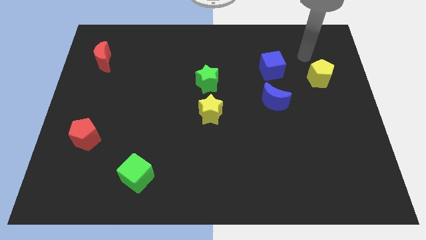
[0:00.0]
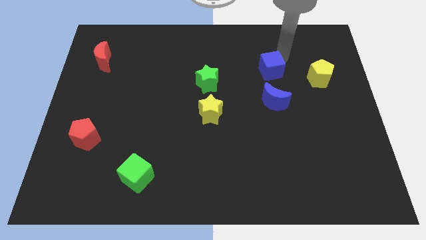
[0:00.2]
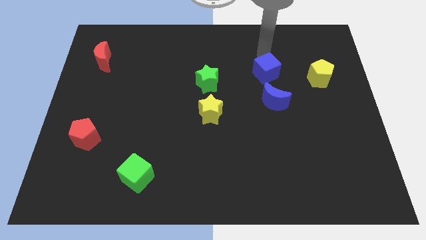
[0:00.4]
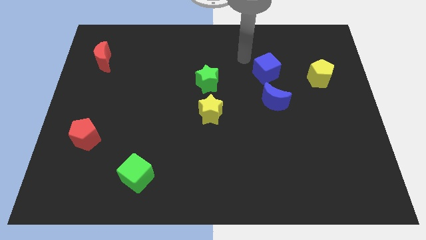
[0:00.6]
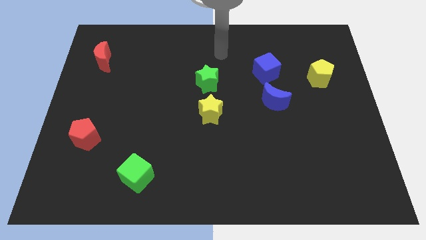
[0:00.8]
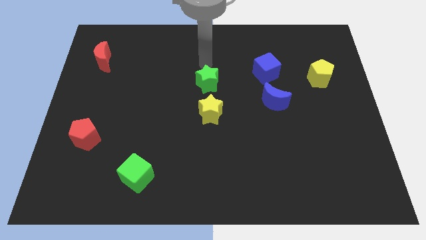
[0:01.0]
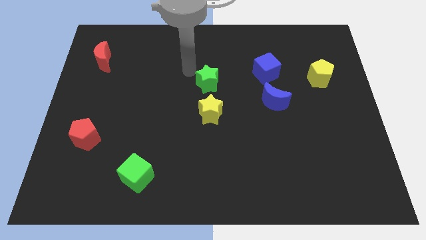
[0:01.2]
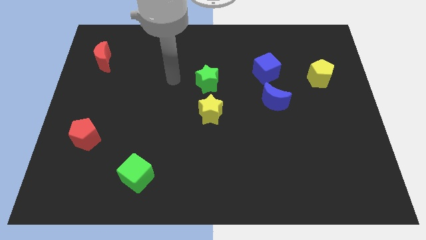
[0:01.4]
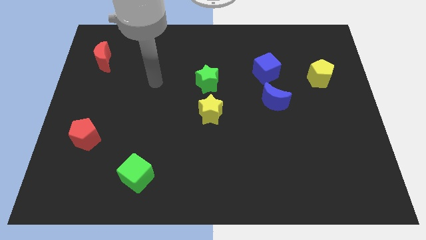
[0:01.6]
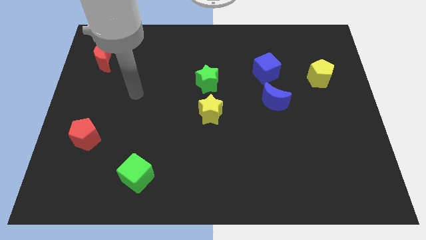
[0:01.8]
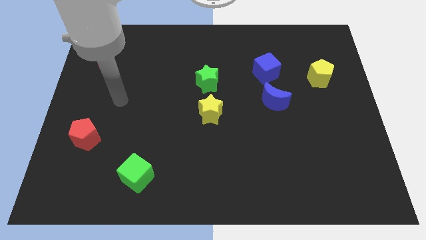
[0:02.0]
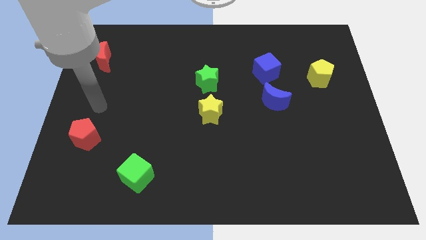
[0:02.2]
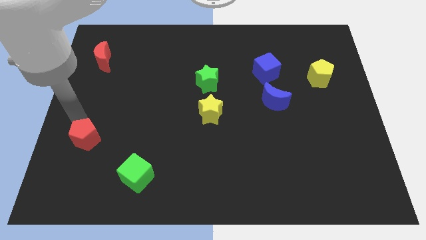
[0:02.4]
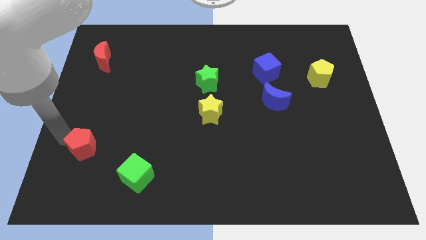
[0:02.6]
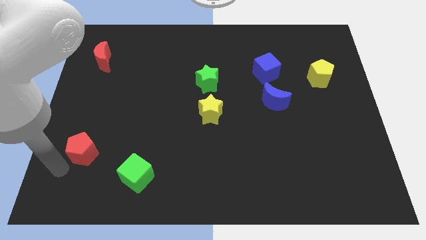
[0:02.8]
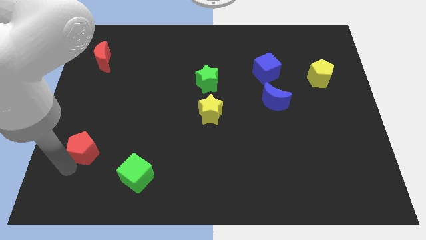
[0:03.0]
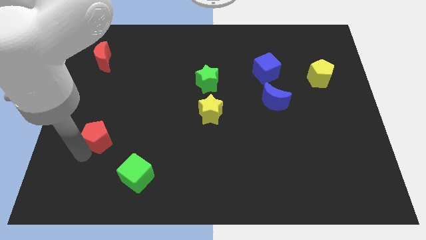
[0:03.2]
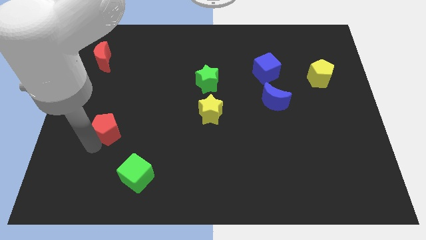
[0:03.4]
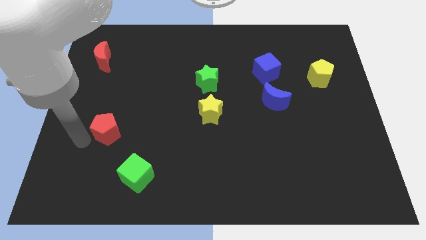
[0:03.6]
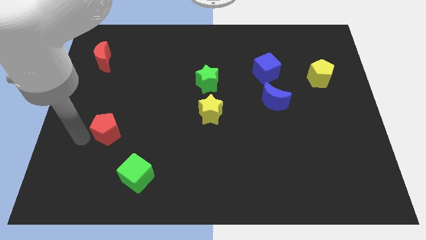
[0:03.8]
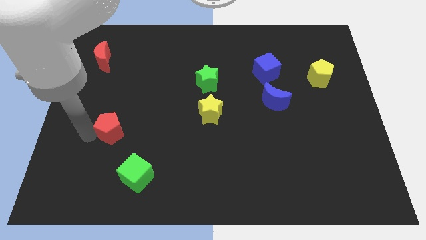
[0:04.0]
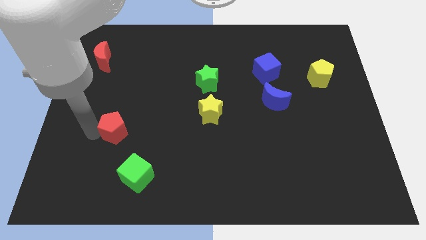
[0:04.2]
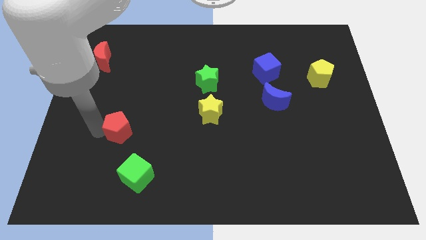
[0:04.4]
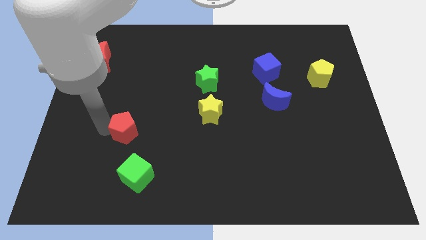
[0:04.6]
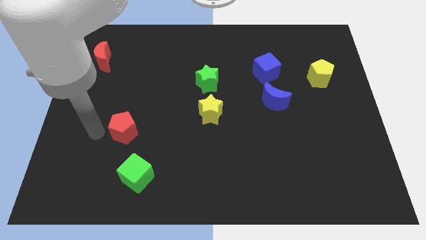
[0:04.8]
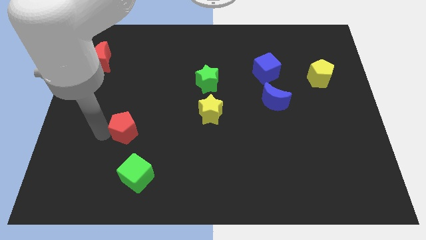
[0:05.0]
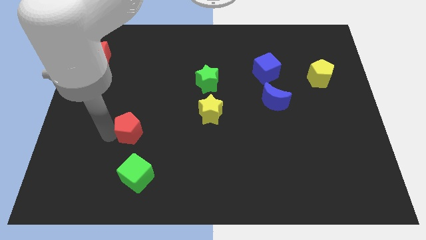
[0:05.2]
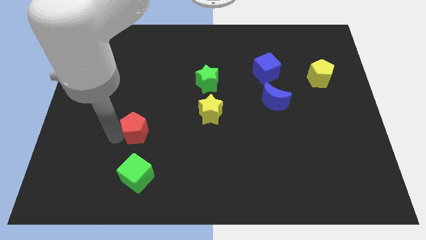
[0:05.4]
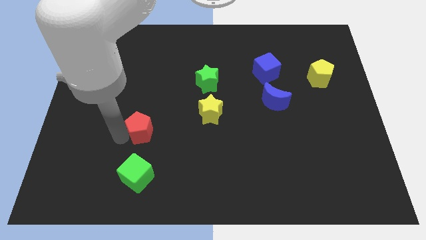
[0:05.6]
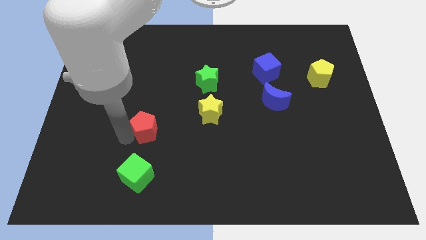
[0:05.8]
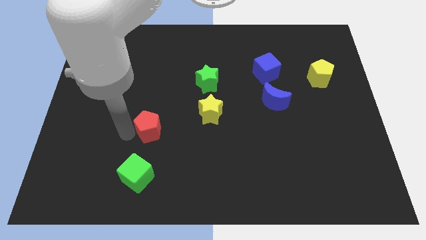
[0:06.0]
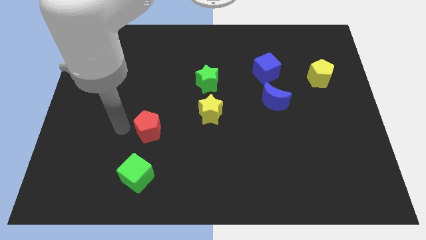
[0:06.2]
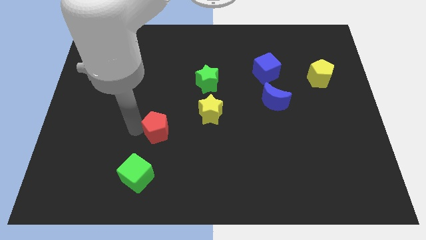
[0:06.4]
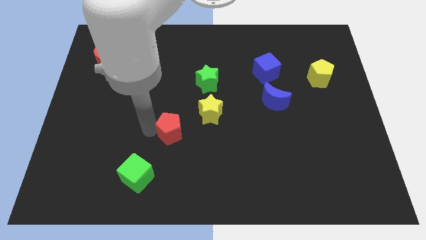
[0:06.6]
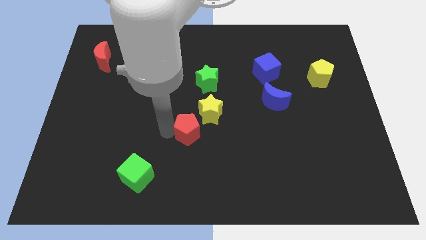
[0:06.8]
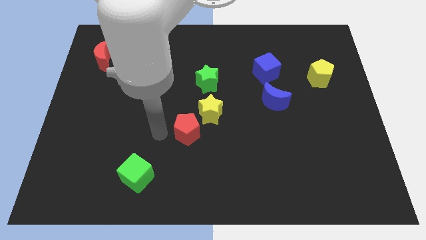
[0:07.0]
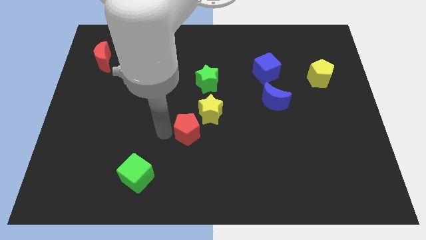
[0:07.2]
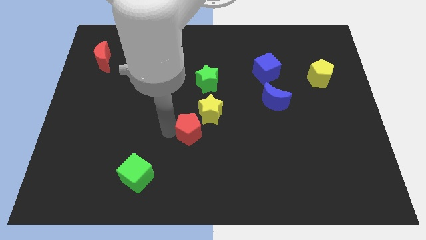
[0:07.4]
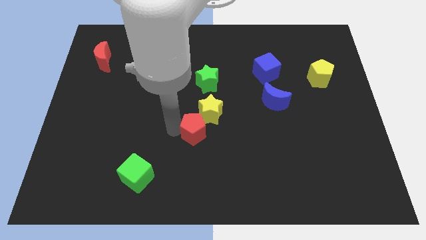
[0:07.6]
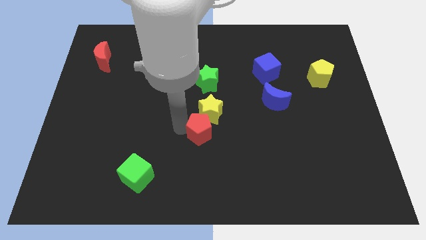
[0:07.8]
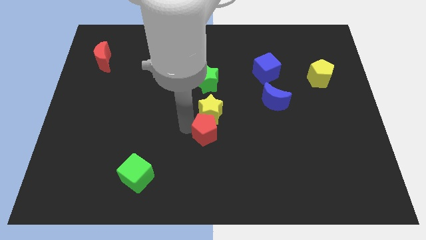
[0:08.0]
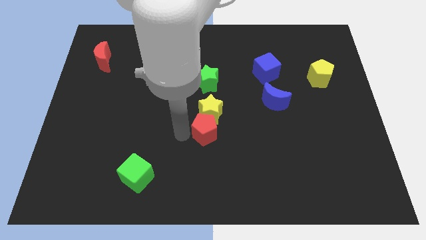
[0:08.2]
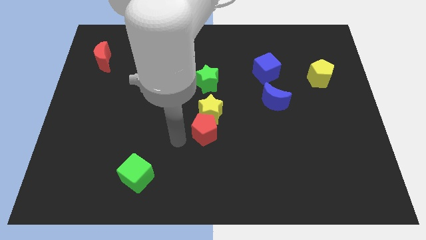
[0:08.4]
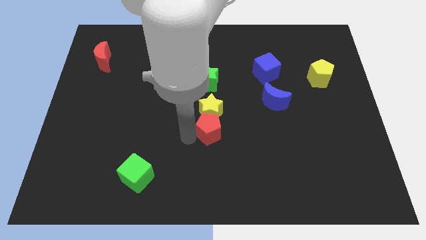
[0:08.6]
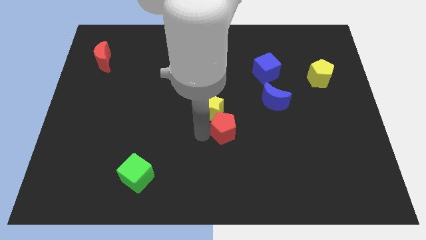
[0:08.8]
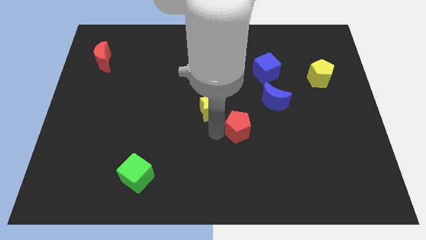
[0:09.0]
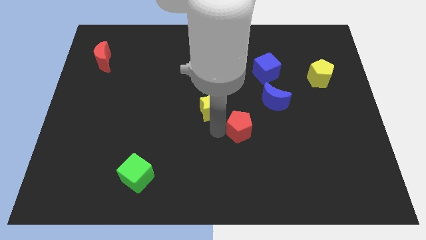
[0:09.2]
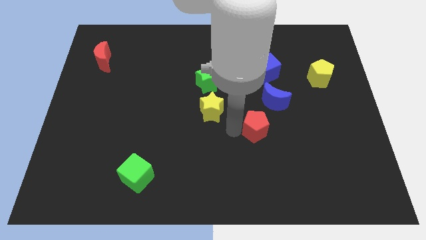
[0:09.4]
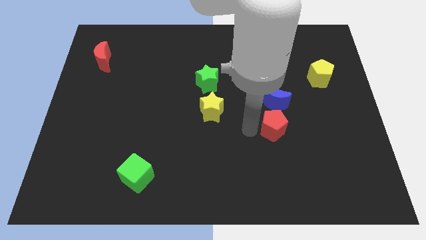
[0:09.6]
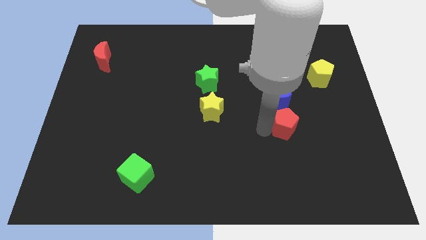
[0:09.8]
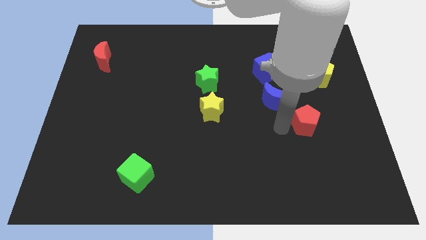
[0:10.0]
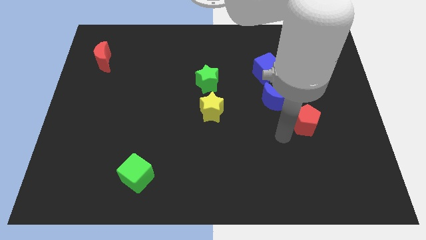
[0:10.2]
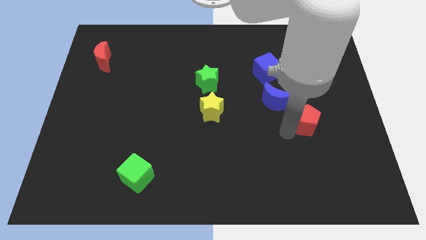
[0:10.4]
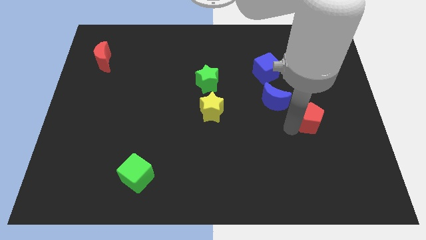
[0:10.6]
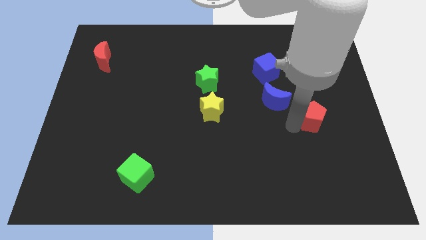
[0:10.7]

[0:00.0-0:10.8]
put the red pentagon below the yellow pentagon

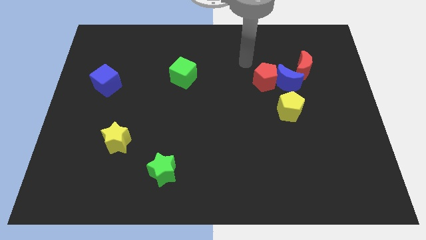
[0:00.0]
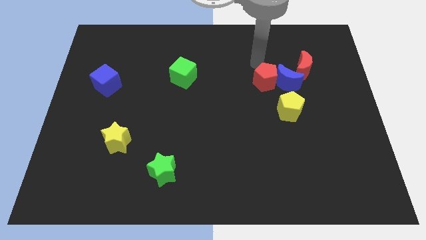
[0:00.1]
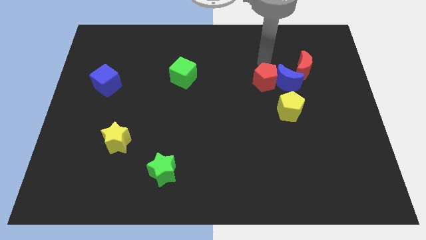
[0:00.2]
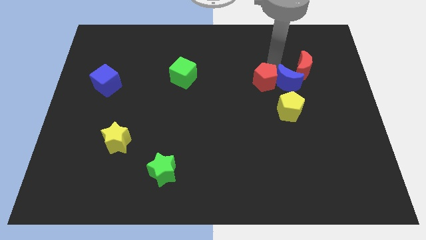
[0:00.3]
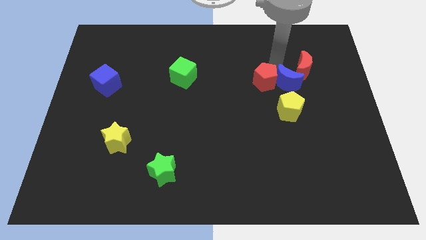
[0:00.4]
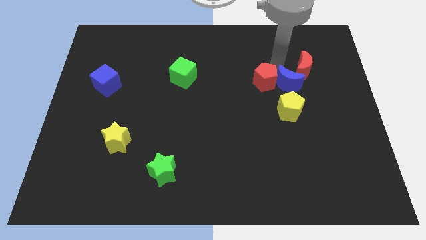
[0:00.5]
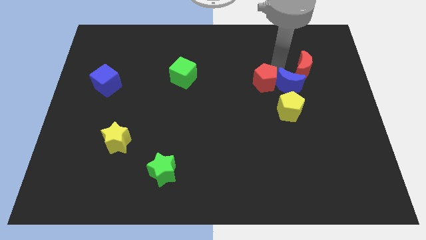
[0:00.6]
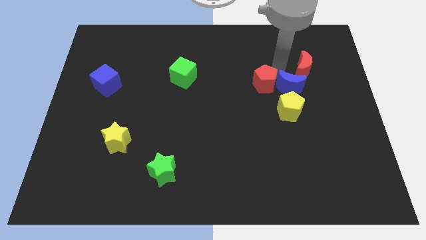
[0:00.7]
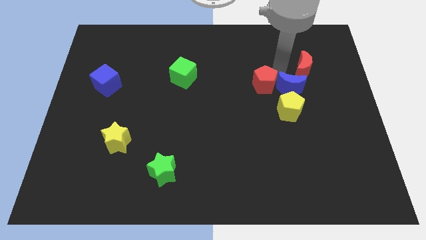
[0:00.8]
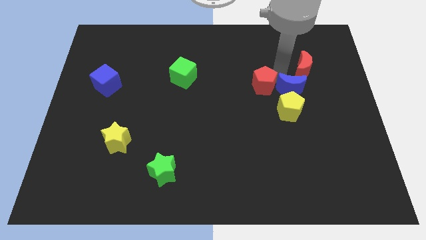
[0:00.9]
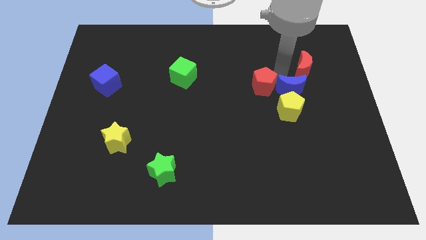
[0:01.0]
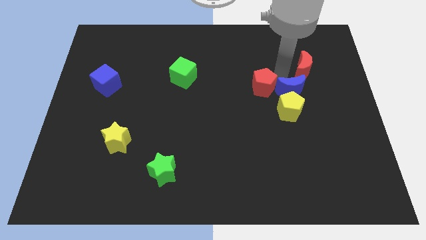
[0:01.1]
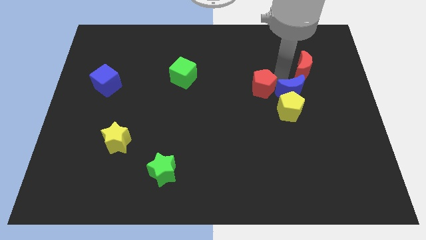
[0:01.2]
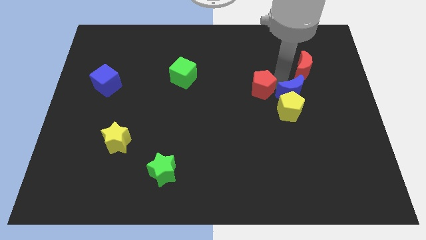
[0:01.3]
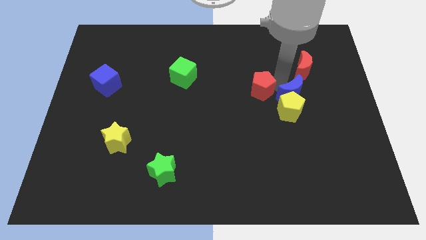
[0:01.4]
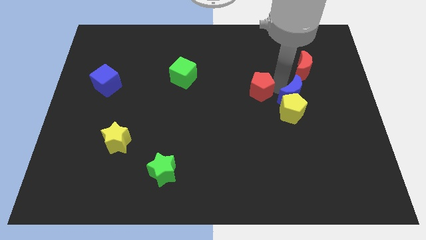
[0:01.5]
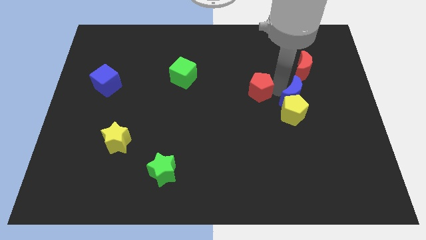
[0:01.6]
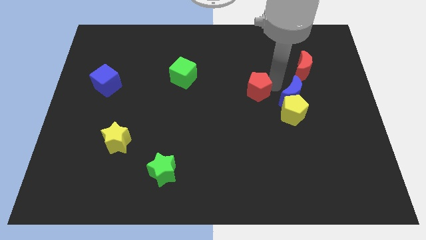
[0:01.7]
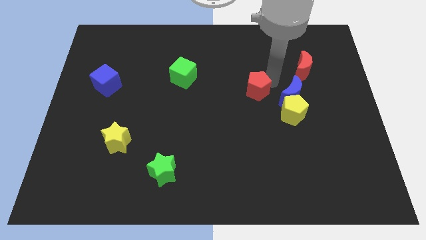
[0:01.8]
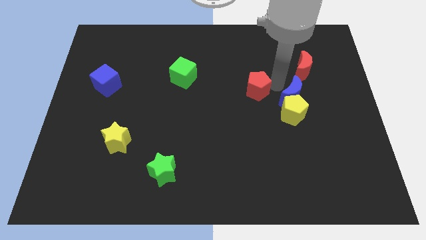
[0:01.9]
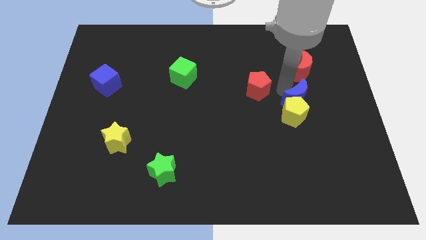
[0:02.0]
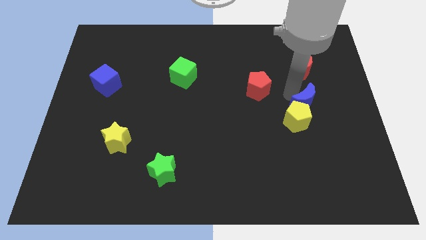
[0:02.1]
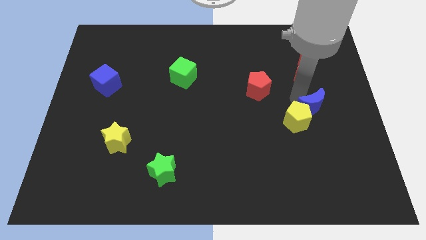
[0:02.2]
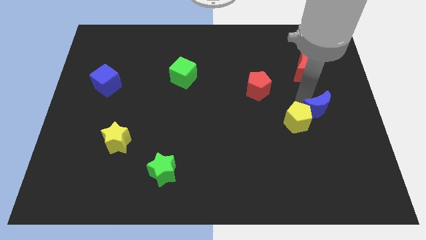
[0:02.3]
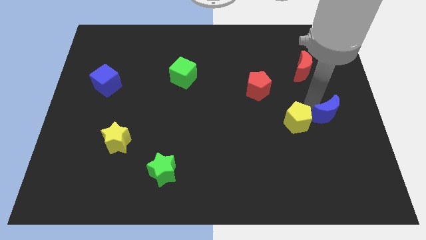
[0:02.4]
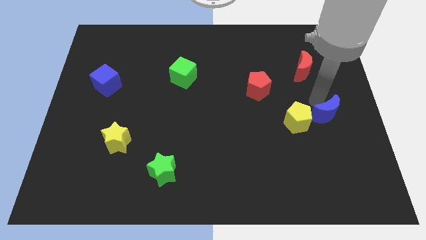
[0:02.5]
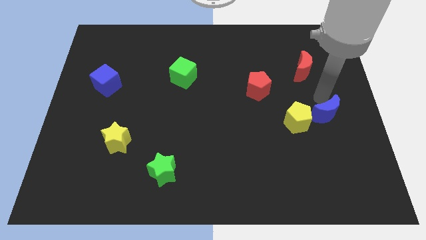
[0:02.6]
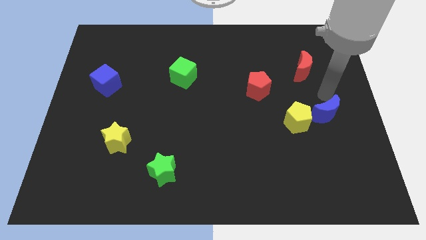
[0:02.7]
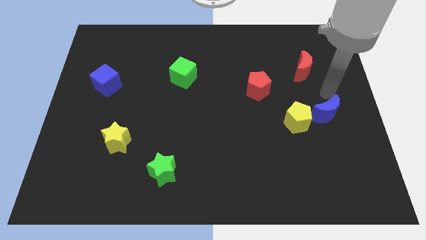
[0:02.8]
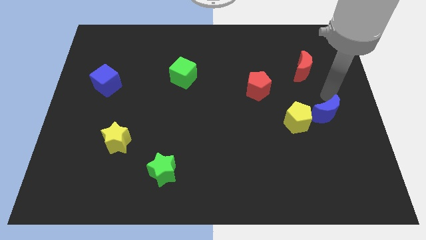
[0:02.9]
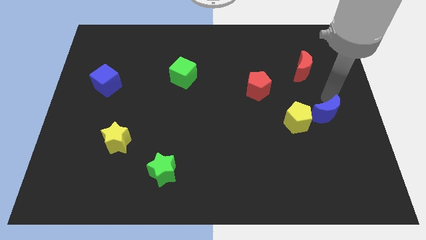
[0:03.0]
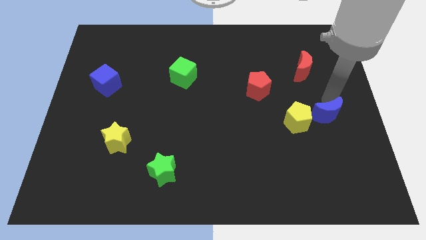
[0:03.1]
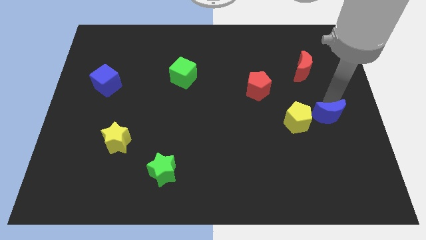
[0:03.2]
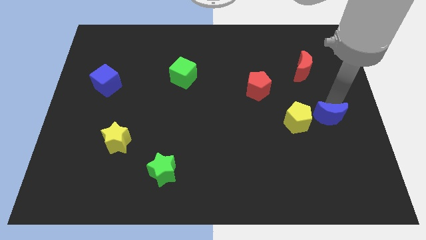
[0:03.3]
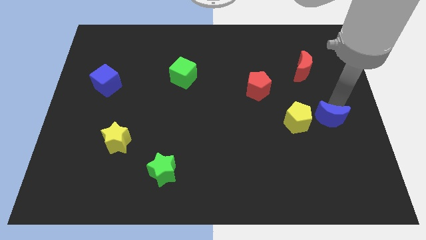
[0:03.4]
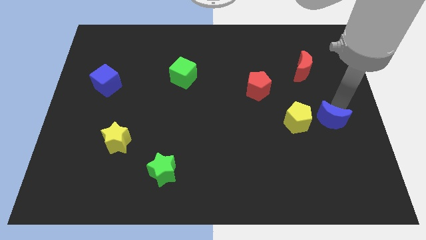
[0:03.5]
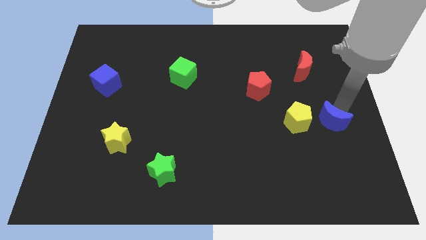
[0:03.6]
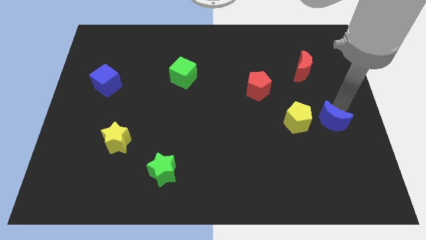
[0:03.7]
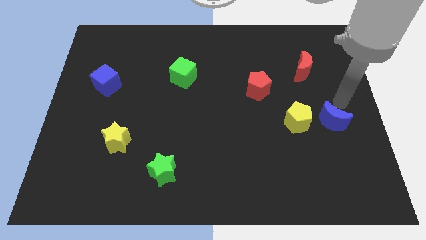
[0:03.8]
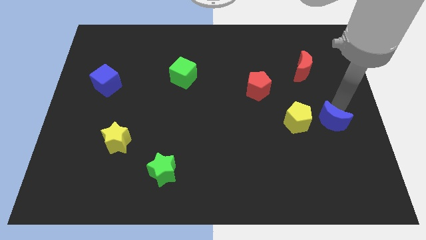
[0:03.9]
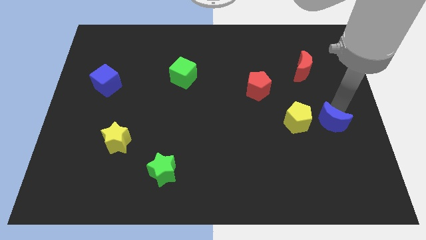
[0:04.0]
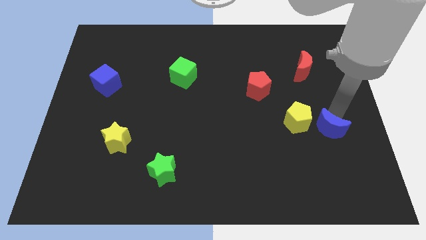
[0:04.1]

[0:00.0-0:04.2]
push the blue moon to the bottom right side of the yellow pentagon
